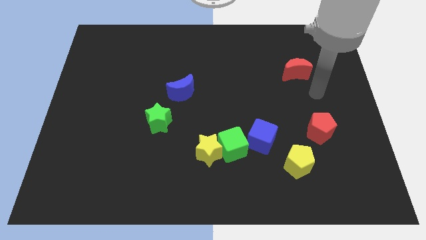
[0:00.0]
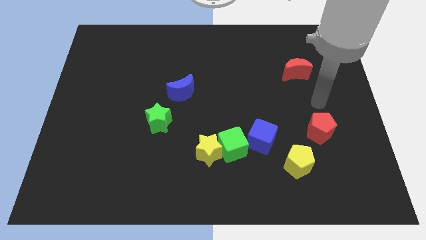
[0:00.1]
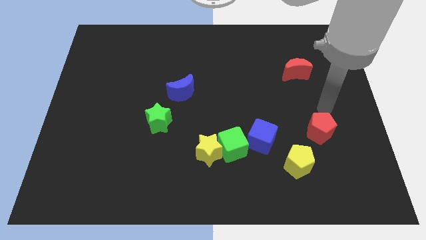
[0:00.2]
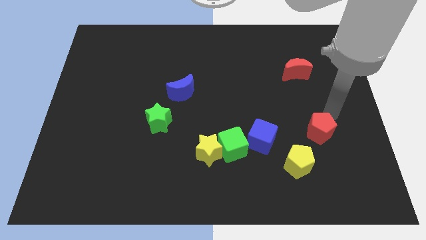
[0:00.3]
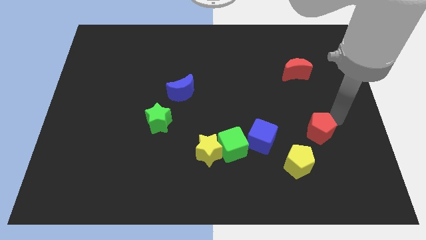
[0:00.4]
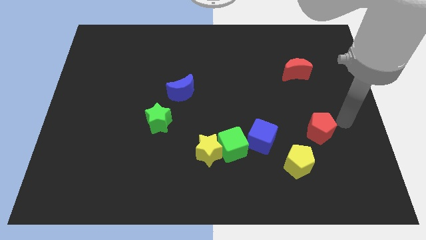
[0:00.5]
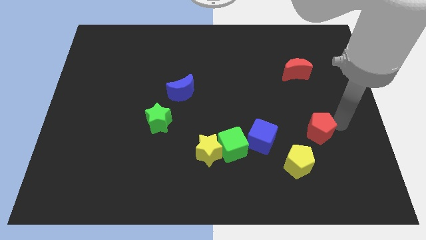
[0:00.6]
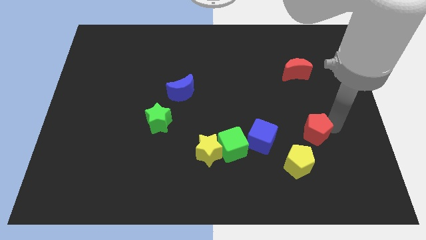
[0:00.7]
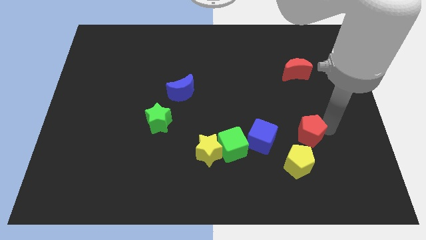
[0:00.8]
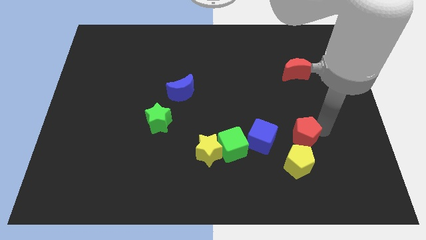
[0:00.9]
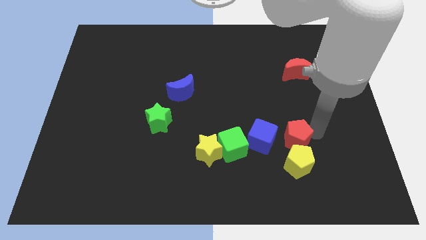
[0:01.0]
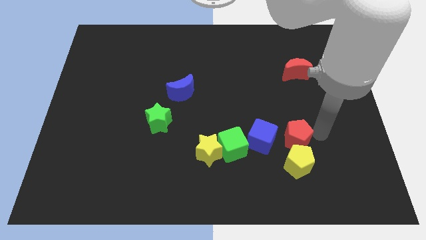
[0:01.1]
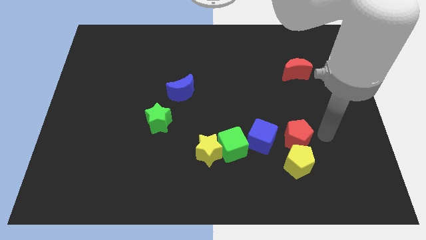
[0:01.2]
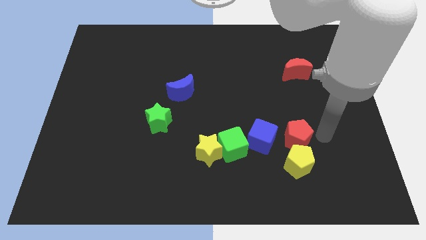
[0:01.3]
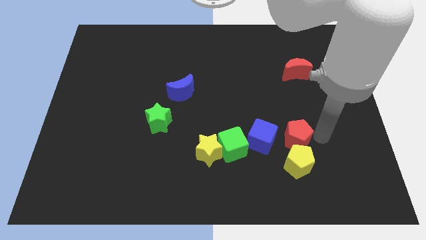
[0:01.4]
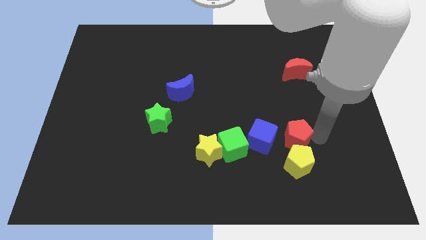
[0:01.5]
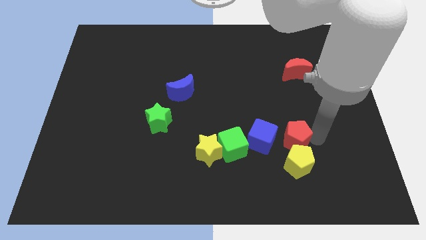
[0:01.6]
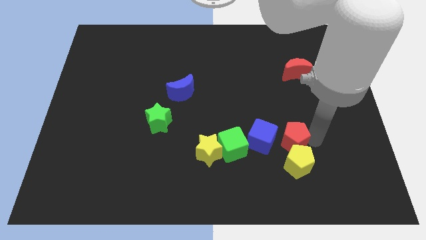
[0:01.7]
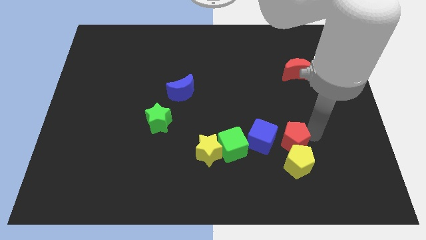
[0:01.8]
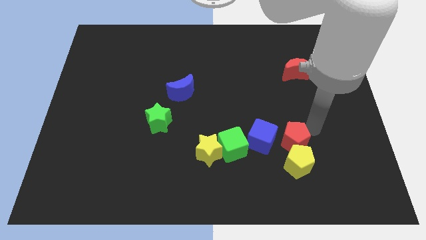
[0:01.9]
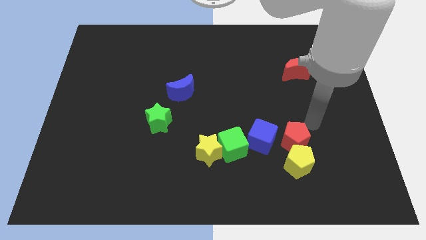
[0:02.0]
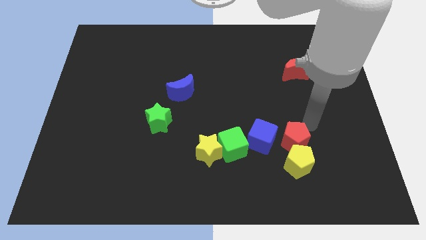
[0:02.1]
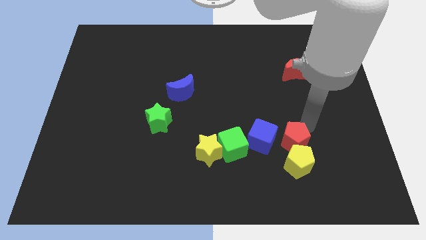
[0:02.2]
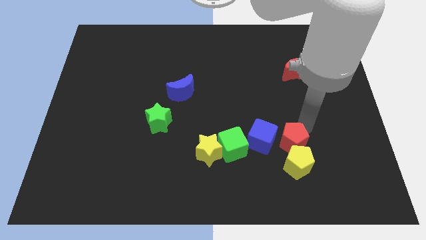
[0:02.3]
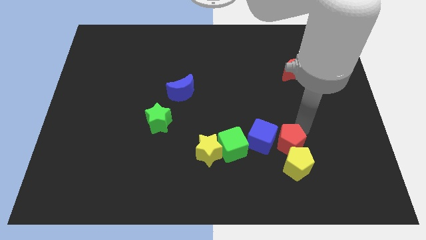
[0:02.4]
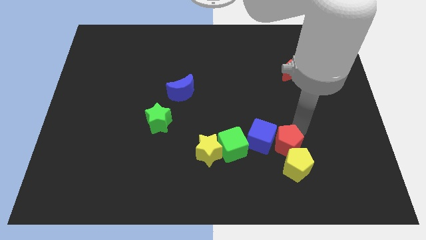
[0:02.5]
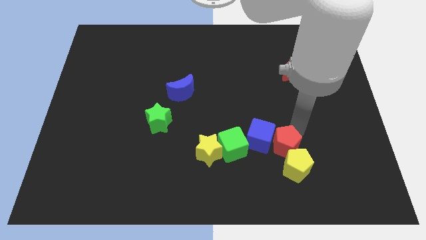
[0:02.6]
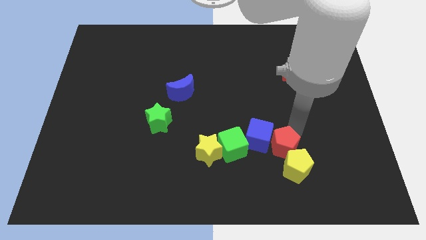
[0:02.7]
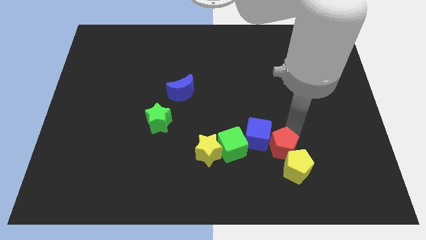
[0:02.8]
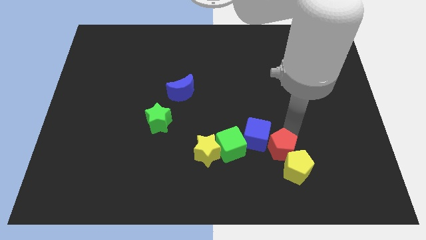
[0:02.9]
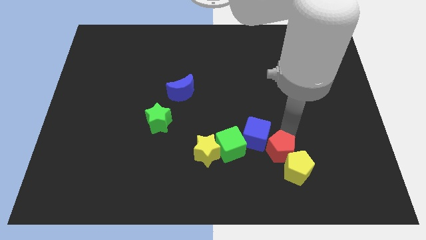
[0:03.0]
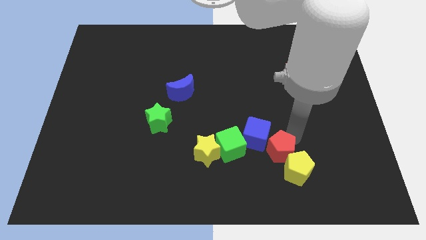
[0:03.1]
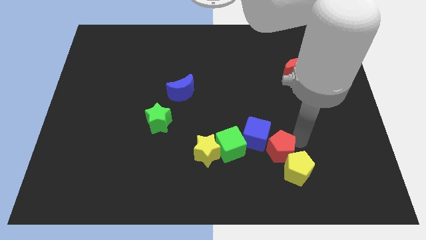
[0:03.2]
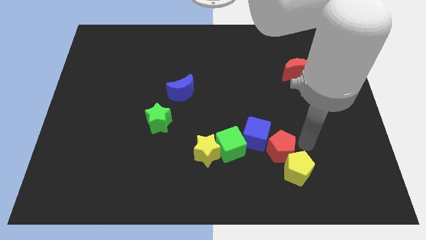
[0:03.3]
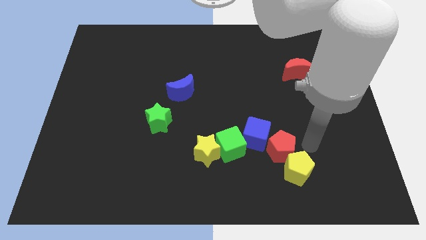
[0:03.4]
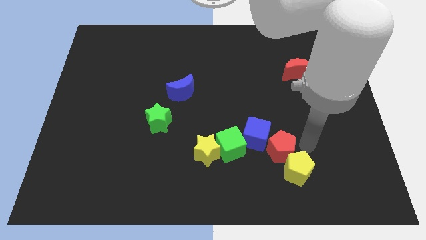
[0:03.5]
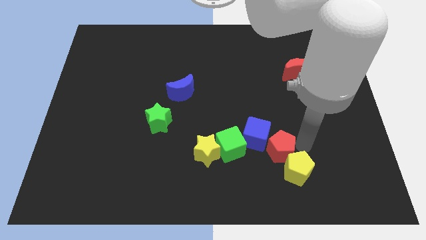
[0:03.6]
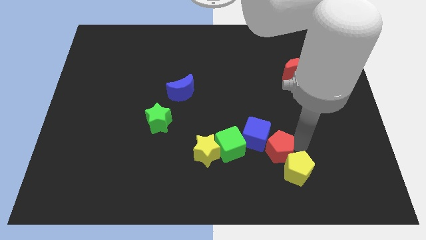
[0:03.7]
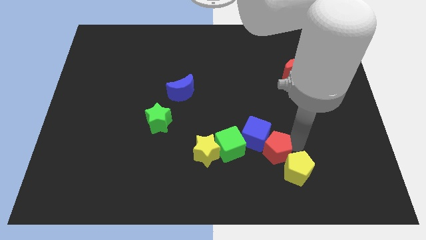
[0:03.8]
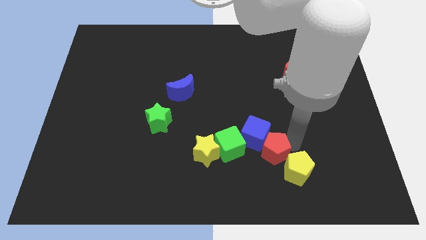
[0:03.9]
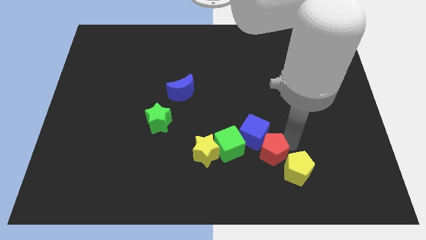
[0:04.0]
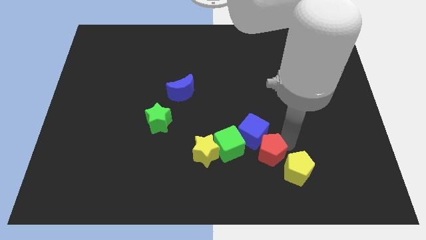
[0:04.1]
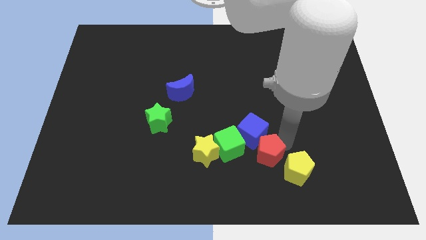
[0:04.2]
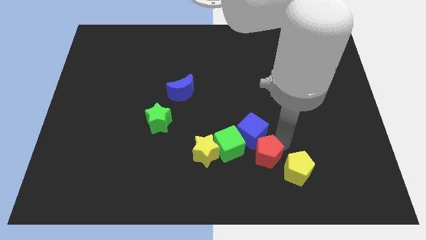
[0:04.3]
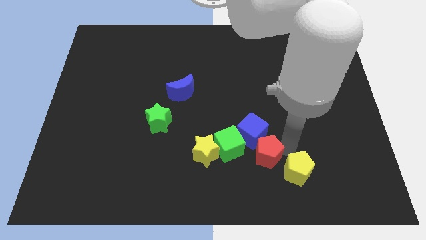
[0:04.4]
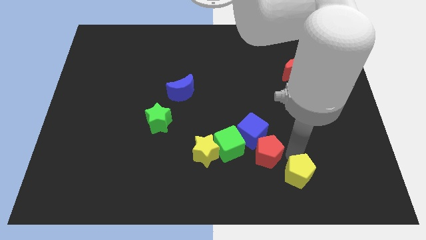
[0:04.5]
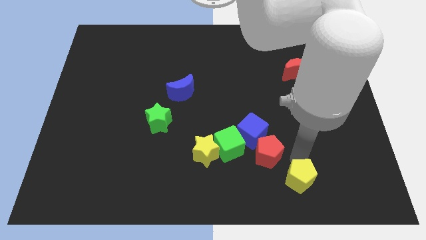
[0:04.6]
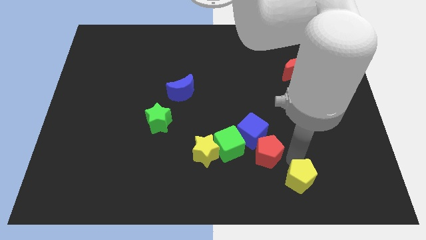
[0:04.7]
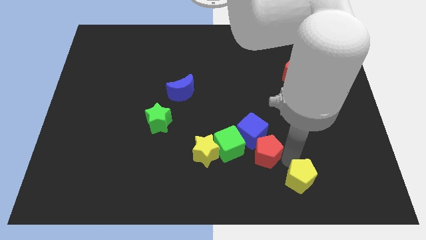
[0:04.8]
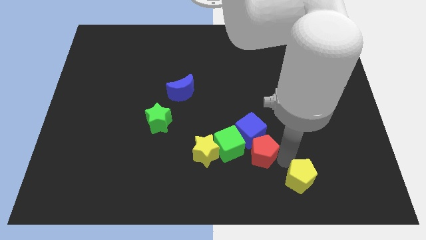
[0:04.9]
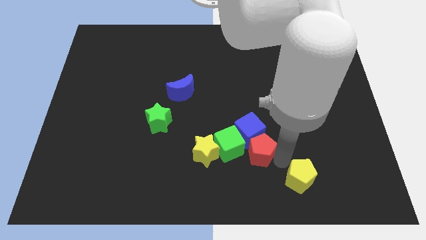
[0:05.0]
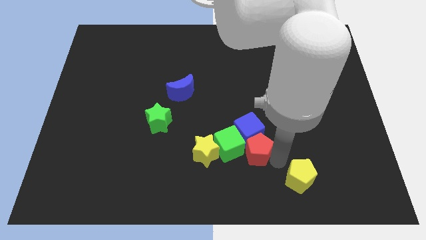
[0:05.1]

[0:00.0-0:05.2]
move the red pentagon towards the green cube

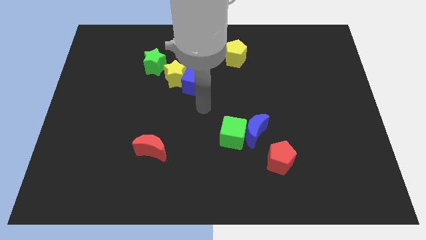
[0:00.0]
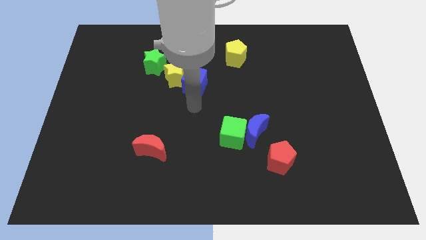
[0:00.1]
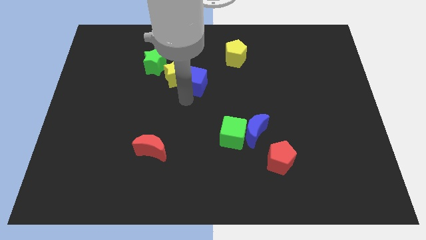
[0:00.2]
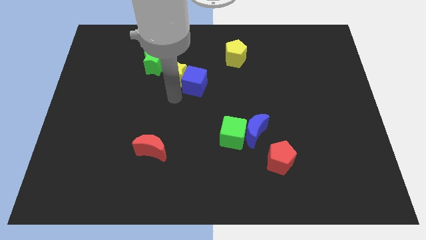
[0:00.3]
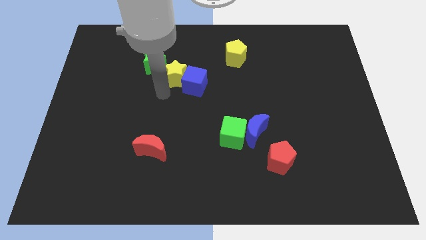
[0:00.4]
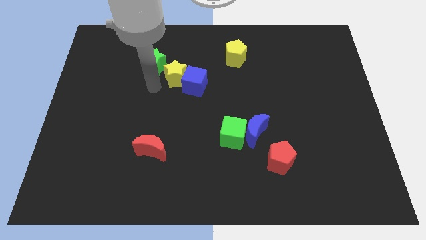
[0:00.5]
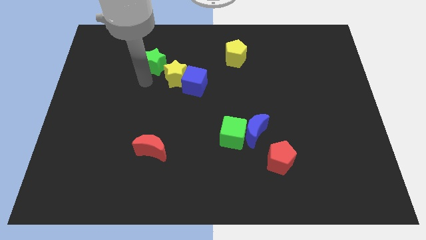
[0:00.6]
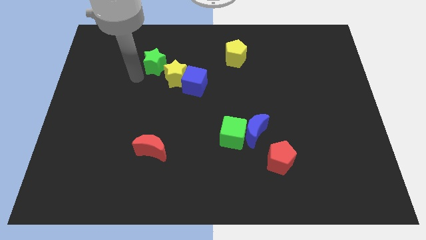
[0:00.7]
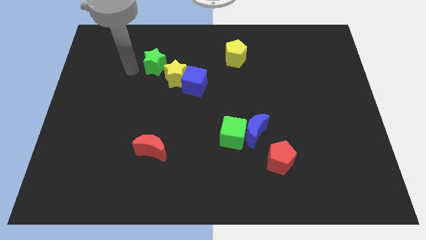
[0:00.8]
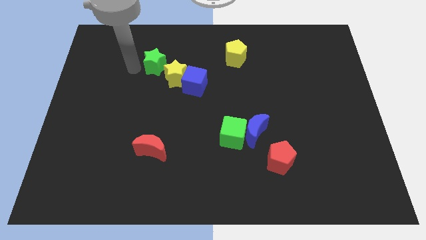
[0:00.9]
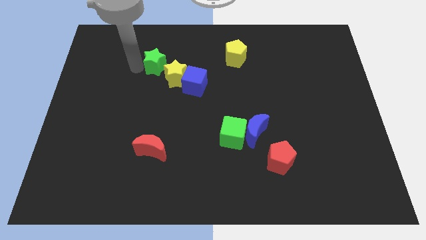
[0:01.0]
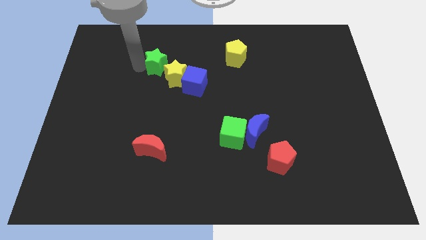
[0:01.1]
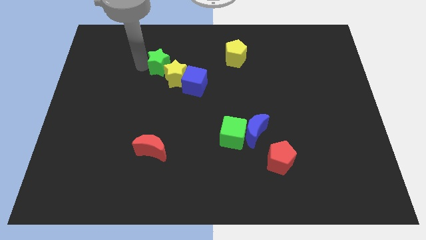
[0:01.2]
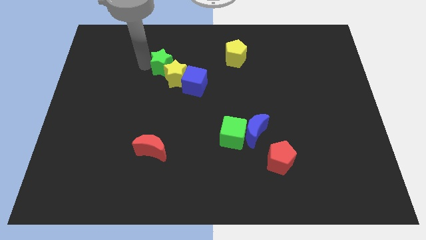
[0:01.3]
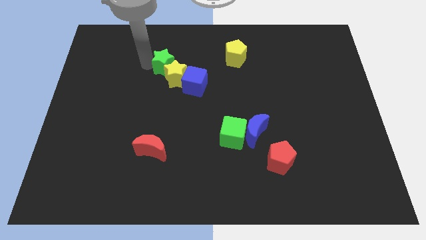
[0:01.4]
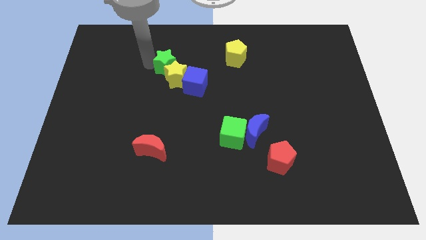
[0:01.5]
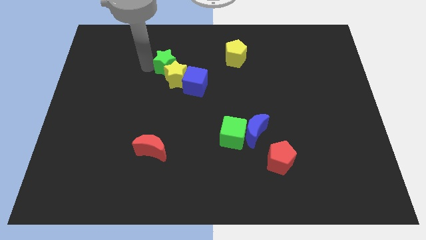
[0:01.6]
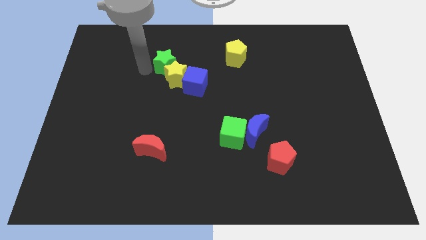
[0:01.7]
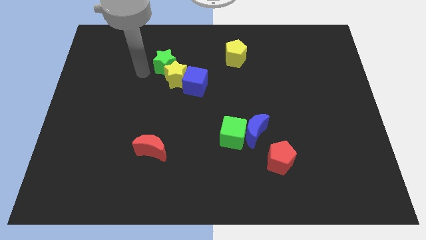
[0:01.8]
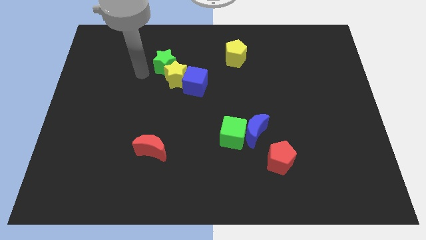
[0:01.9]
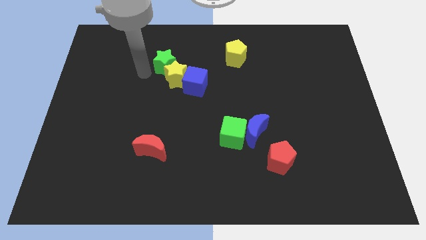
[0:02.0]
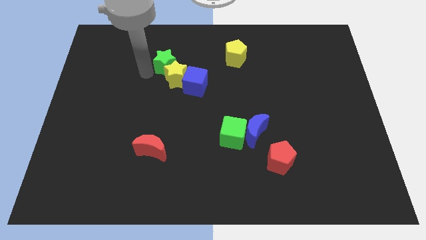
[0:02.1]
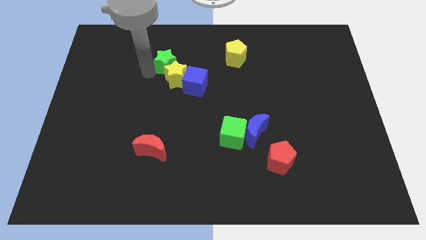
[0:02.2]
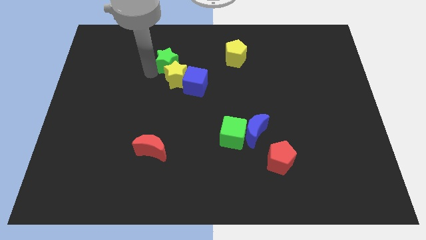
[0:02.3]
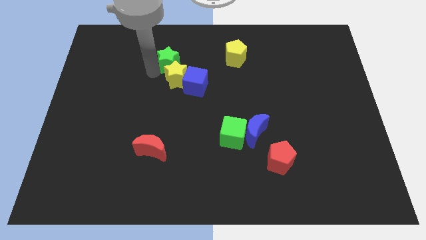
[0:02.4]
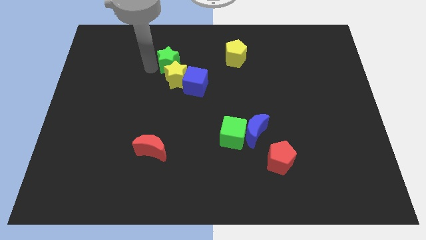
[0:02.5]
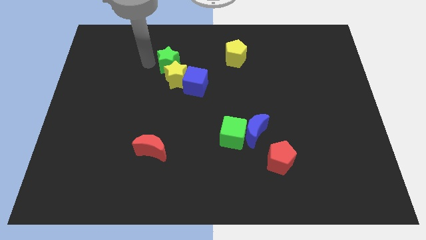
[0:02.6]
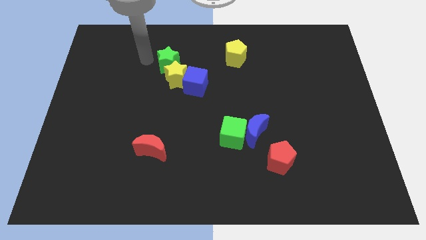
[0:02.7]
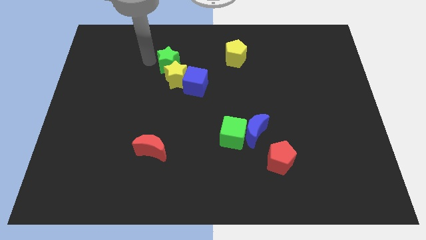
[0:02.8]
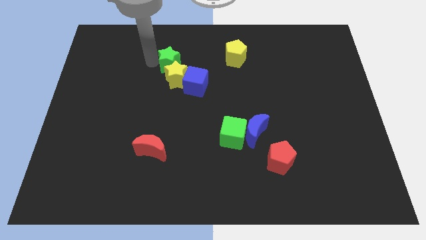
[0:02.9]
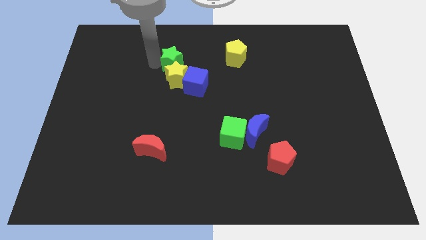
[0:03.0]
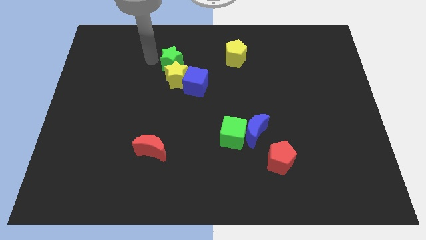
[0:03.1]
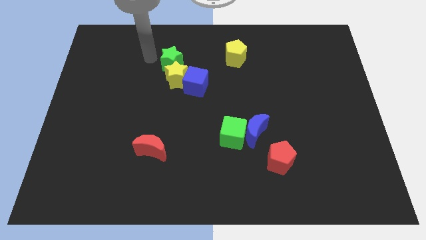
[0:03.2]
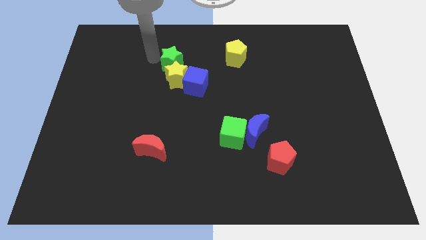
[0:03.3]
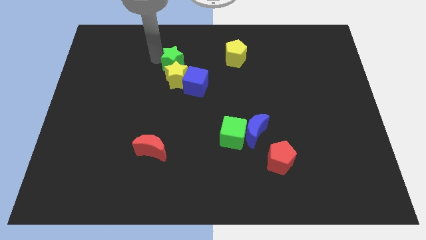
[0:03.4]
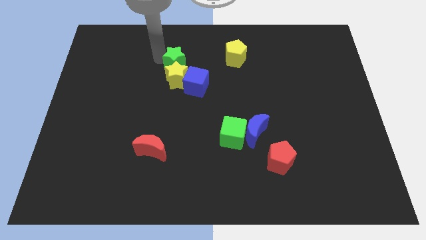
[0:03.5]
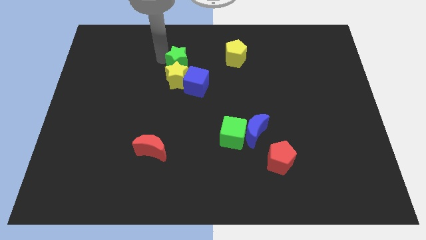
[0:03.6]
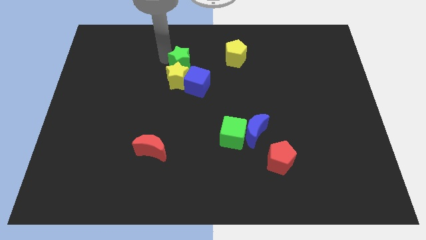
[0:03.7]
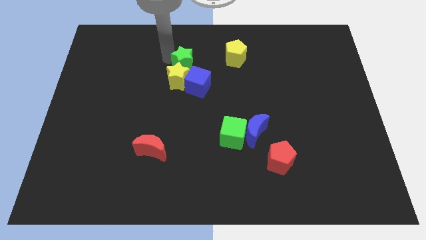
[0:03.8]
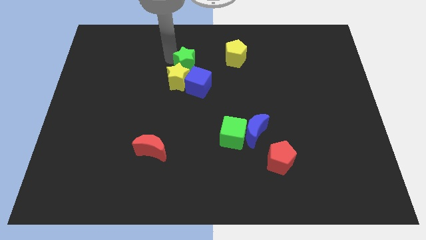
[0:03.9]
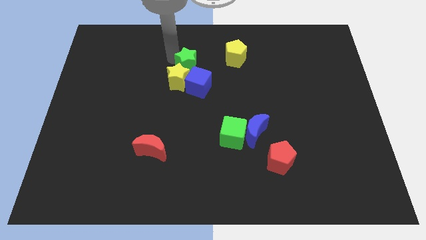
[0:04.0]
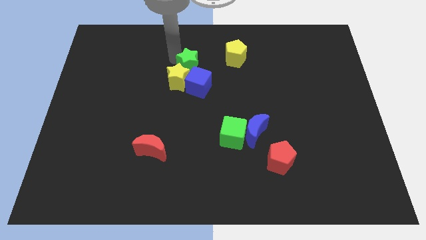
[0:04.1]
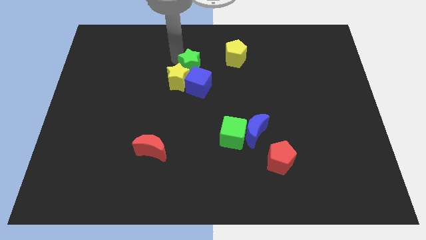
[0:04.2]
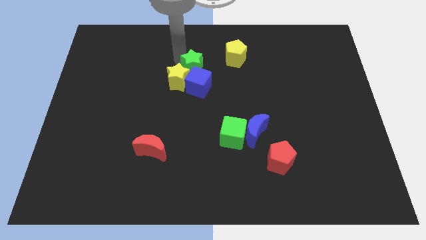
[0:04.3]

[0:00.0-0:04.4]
move the green star towards the blue cube
